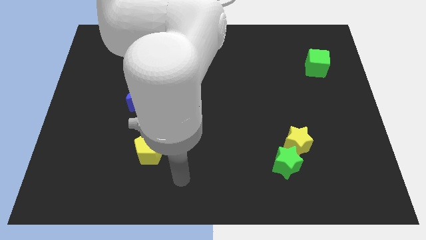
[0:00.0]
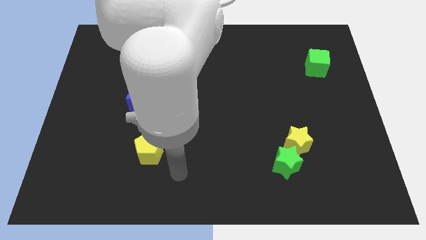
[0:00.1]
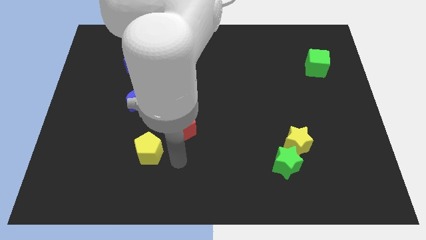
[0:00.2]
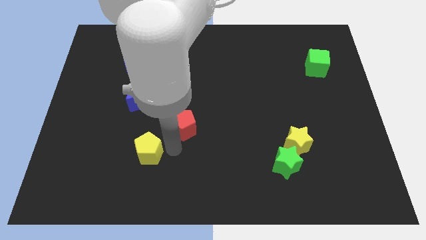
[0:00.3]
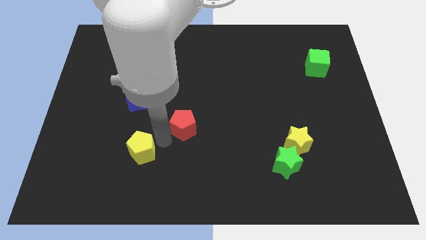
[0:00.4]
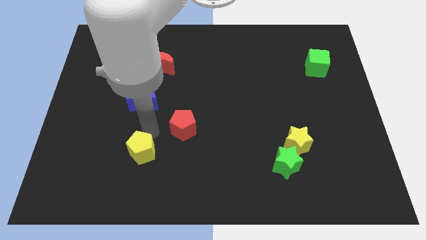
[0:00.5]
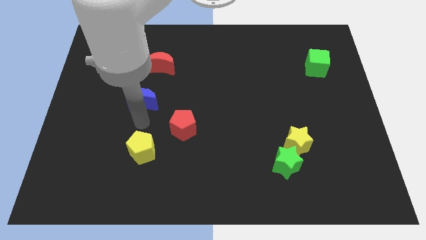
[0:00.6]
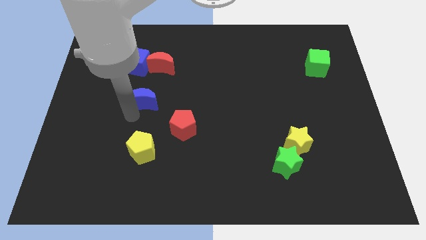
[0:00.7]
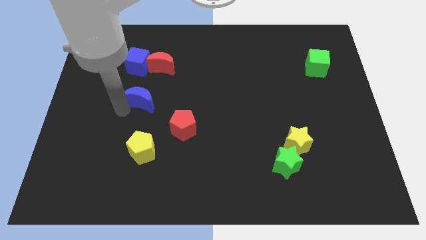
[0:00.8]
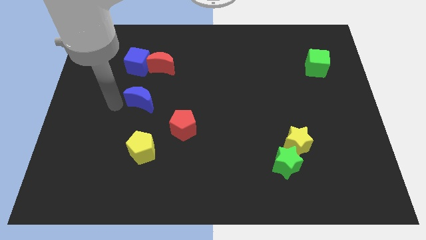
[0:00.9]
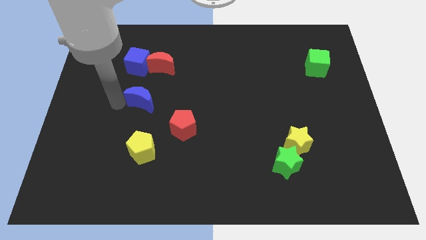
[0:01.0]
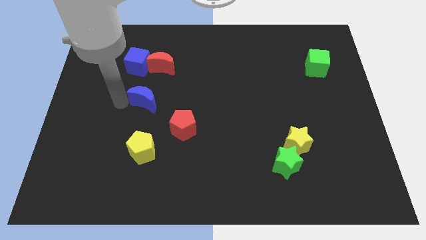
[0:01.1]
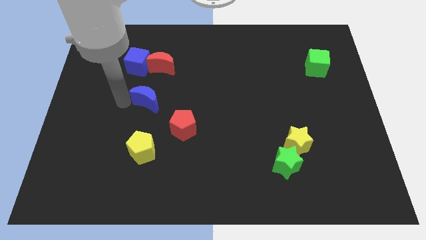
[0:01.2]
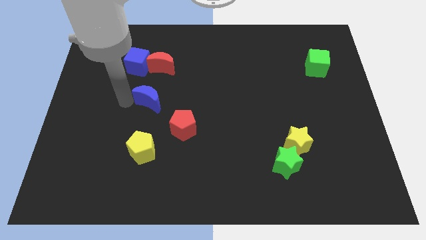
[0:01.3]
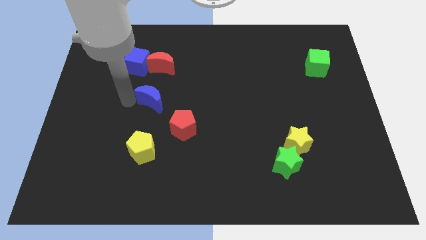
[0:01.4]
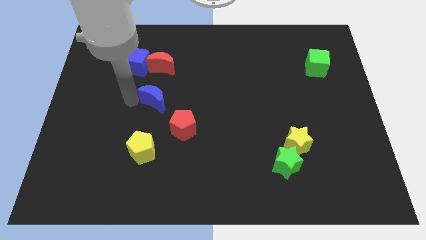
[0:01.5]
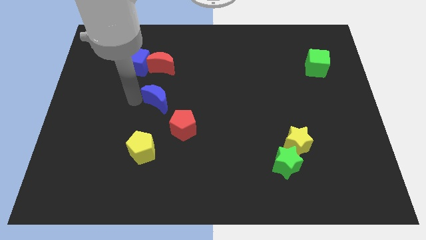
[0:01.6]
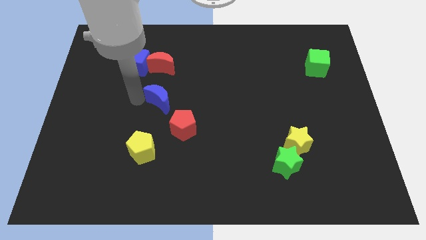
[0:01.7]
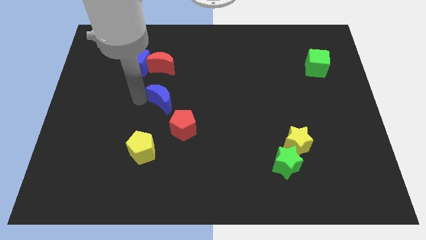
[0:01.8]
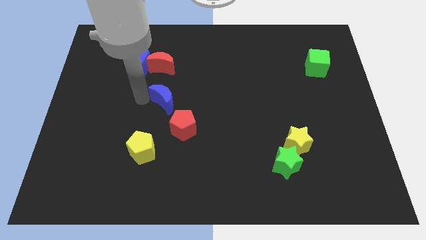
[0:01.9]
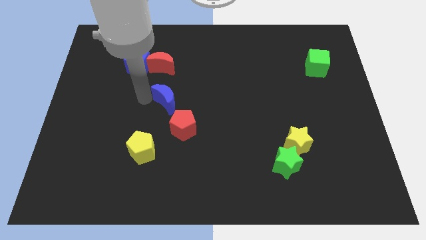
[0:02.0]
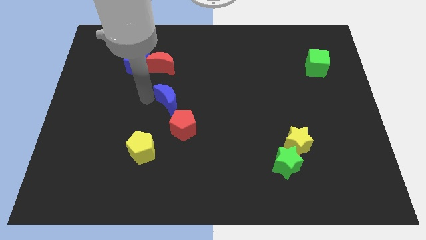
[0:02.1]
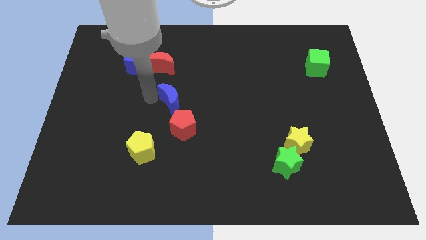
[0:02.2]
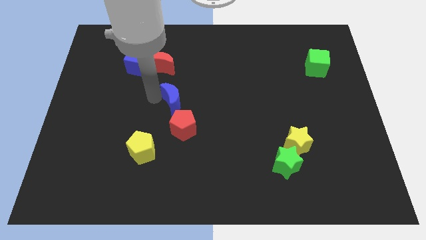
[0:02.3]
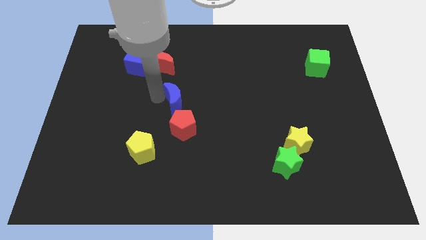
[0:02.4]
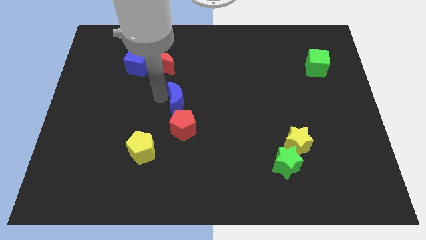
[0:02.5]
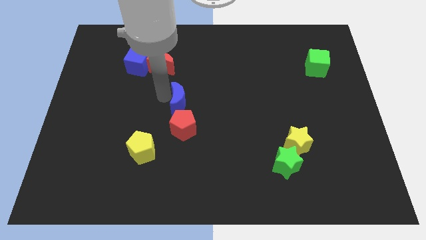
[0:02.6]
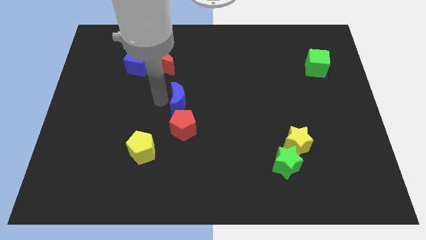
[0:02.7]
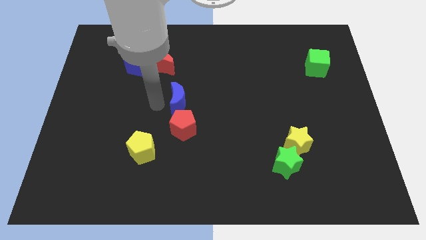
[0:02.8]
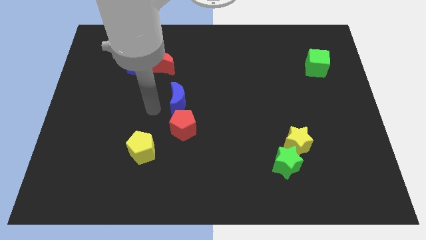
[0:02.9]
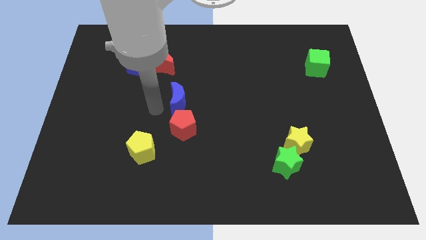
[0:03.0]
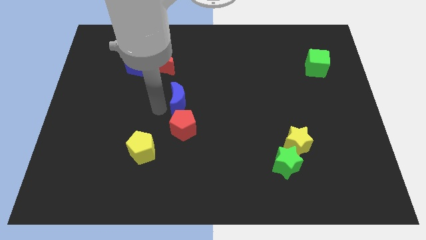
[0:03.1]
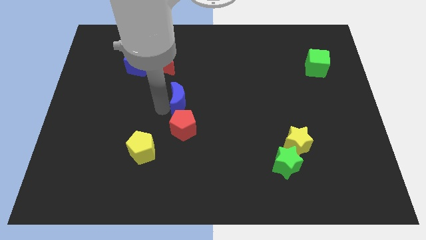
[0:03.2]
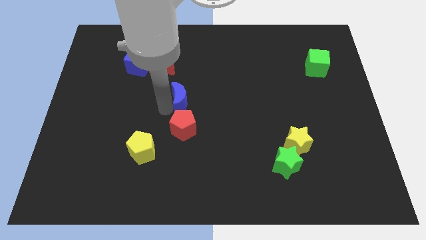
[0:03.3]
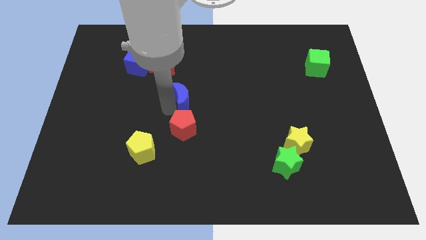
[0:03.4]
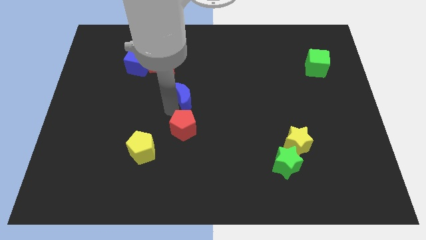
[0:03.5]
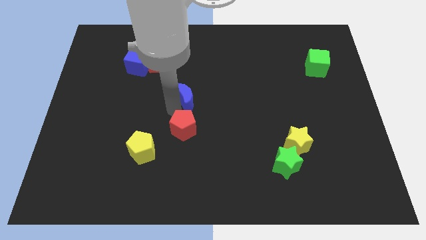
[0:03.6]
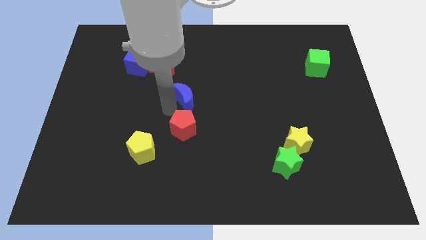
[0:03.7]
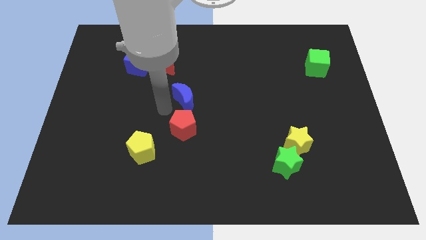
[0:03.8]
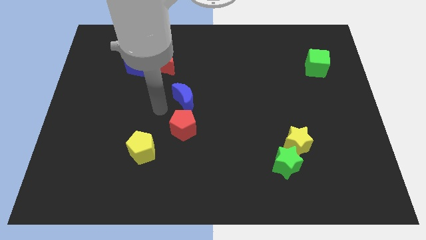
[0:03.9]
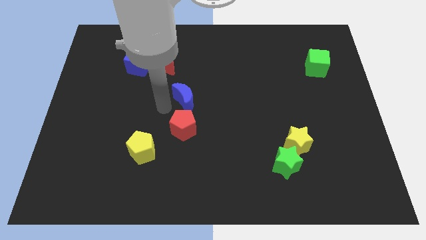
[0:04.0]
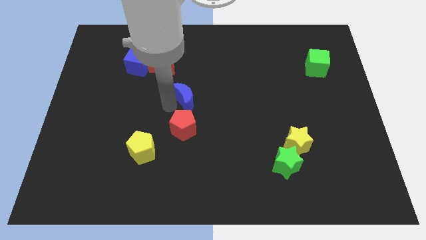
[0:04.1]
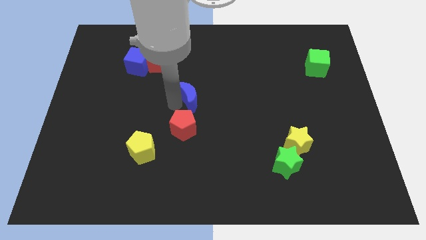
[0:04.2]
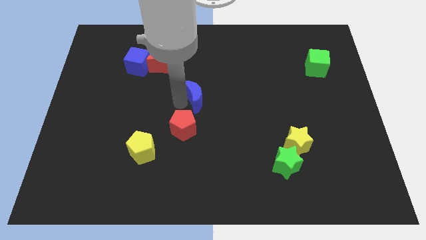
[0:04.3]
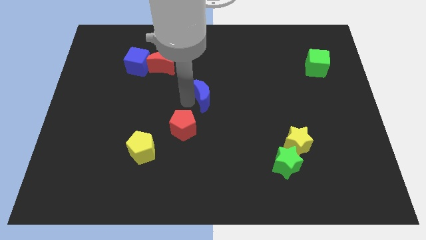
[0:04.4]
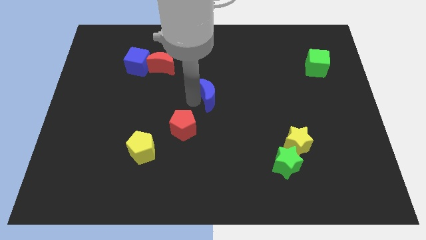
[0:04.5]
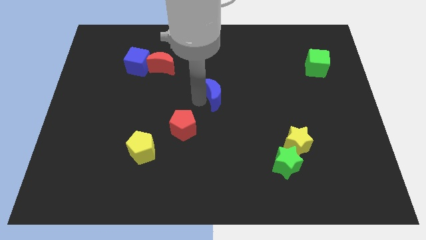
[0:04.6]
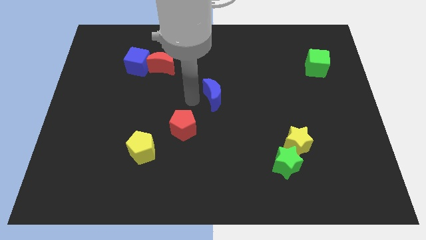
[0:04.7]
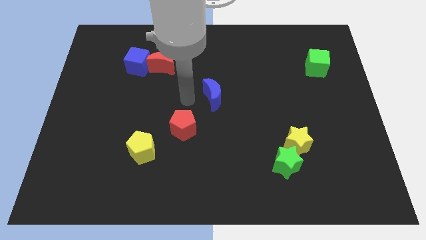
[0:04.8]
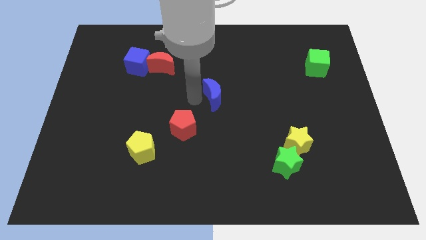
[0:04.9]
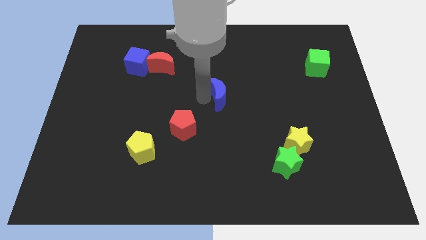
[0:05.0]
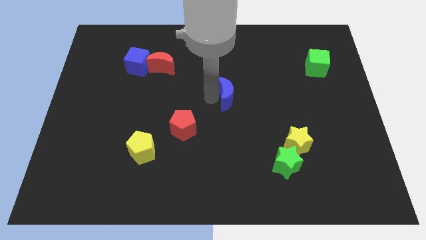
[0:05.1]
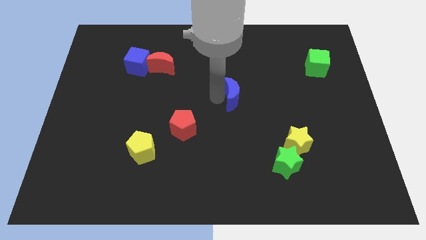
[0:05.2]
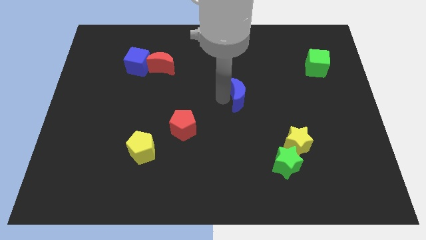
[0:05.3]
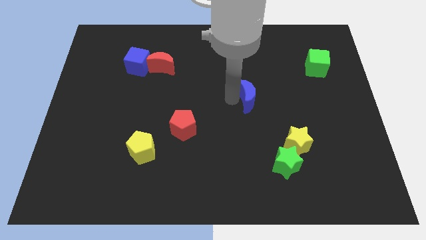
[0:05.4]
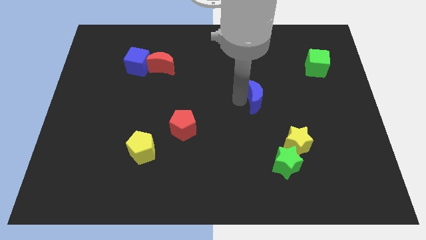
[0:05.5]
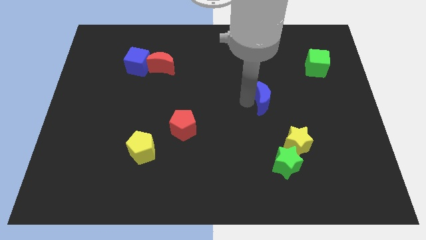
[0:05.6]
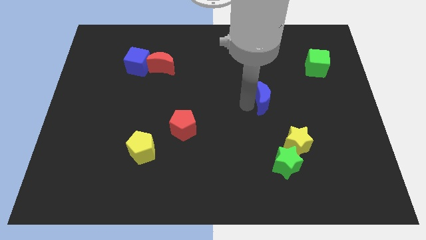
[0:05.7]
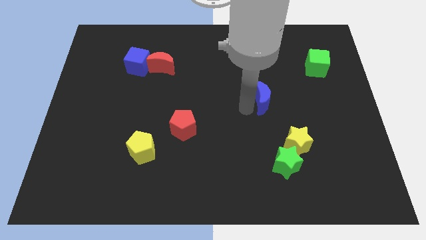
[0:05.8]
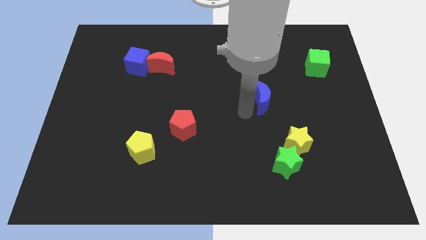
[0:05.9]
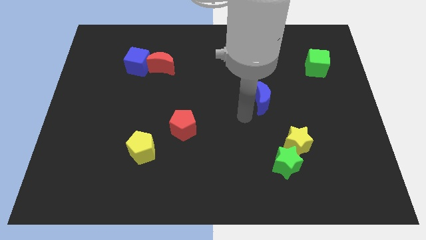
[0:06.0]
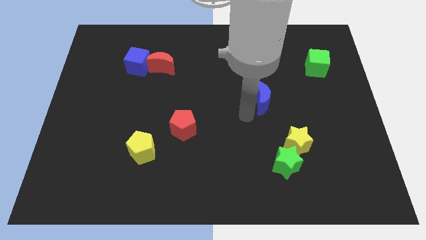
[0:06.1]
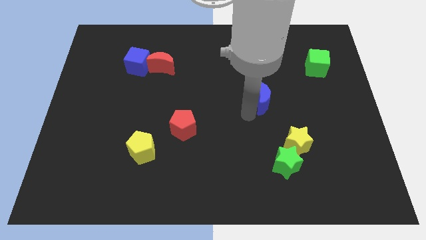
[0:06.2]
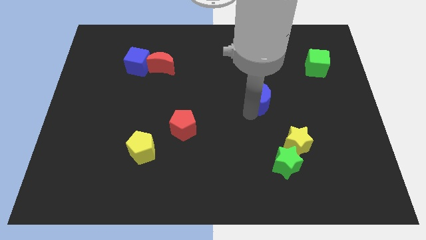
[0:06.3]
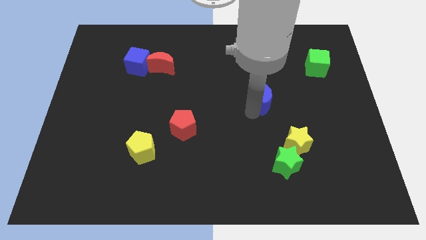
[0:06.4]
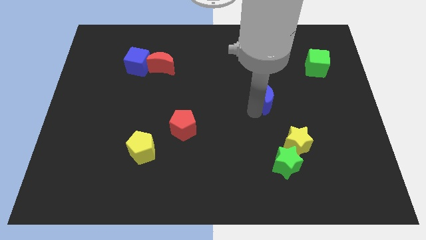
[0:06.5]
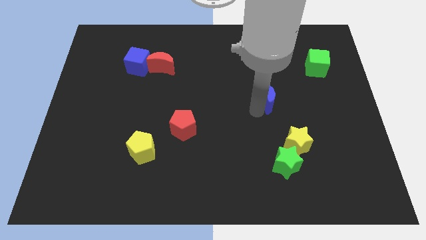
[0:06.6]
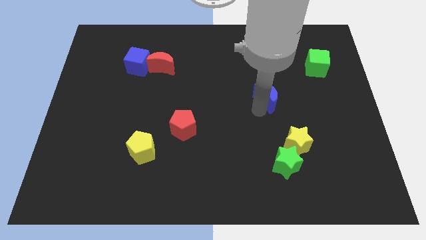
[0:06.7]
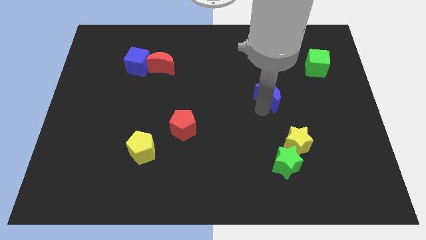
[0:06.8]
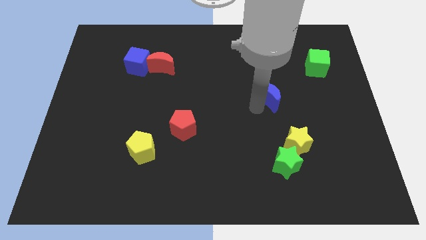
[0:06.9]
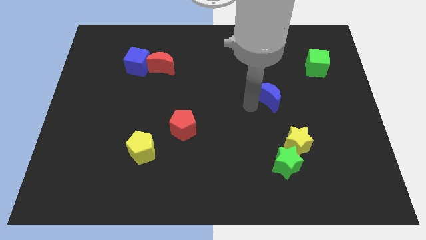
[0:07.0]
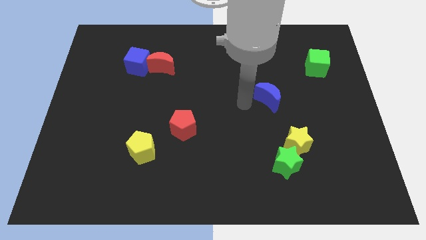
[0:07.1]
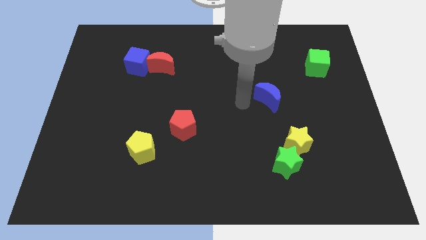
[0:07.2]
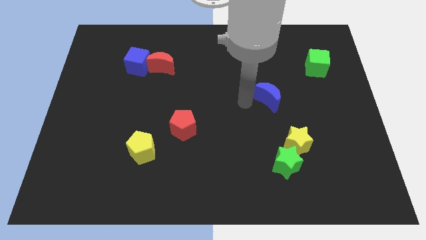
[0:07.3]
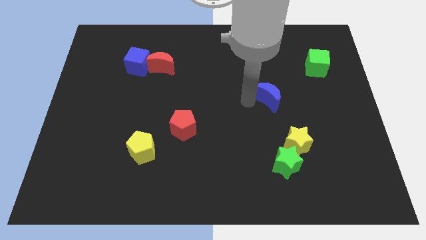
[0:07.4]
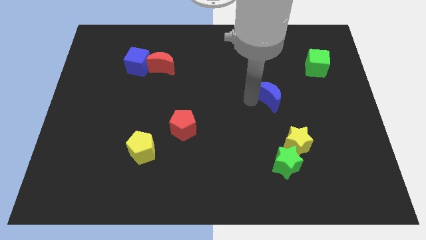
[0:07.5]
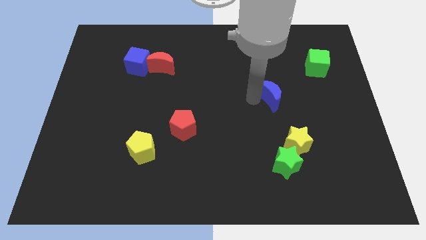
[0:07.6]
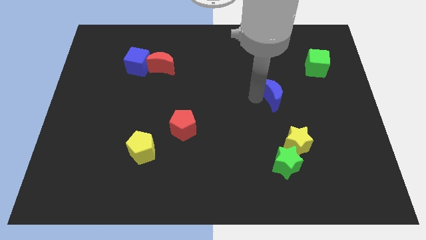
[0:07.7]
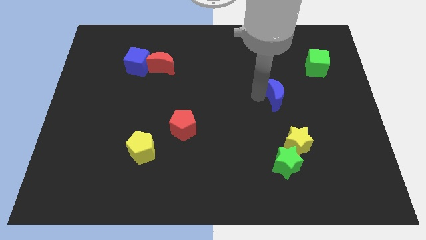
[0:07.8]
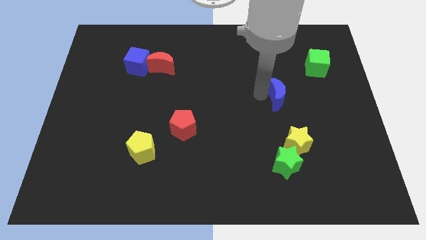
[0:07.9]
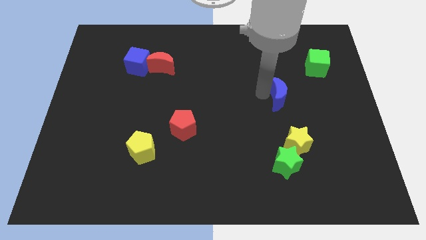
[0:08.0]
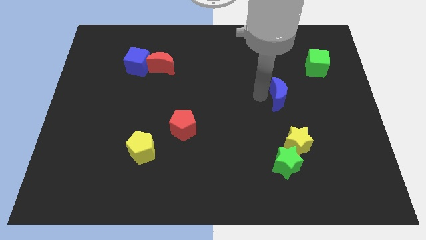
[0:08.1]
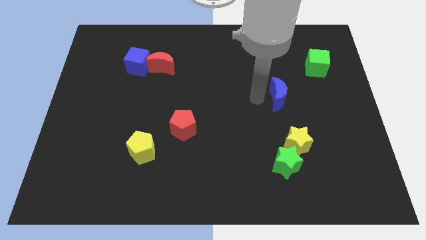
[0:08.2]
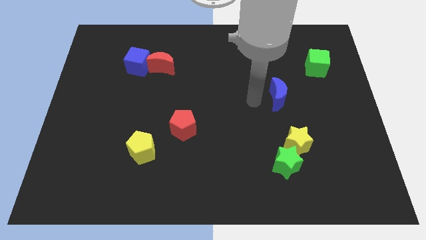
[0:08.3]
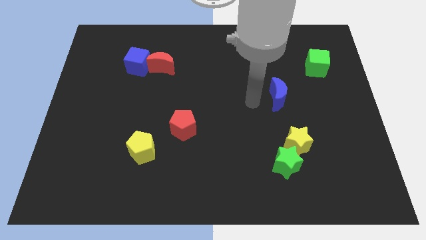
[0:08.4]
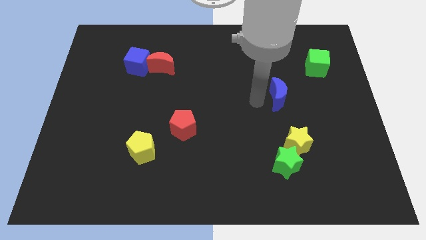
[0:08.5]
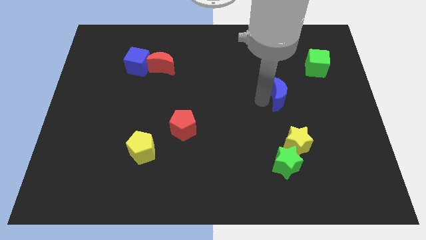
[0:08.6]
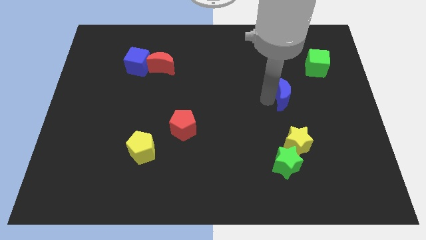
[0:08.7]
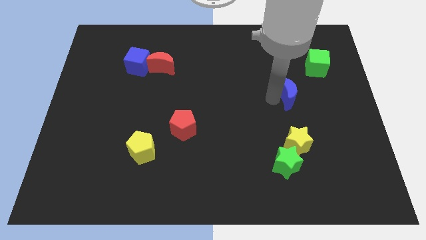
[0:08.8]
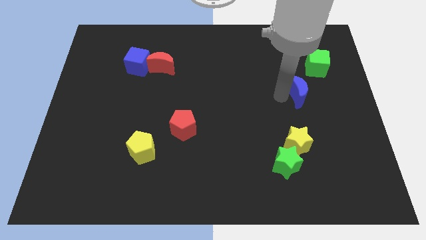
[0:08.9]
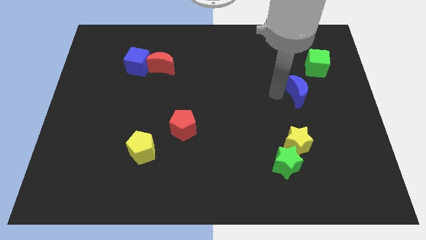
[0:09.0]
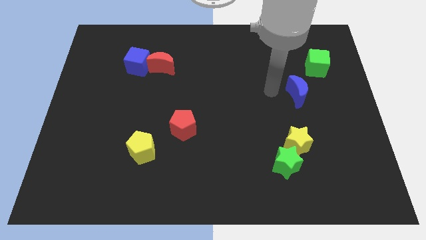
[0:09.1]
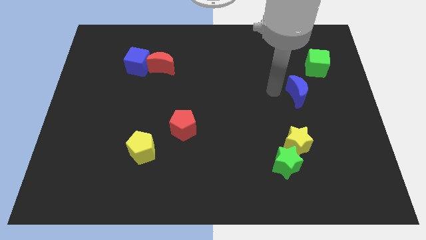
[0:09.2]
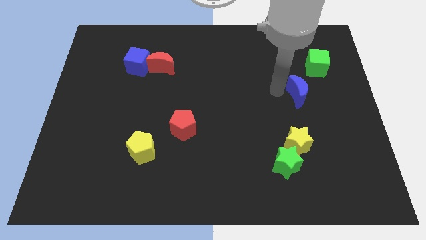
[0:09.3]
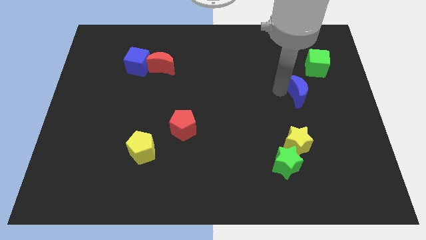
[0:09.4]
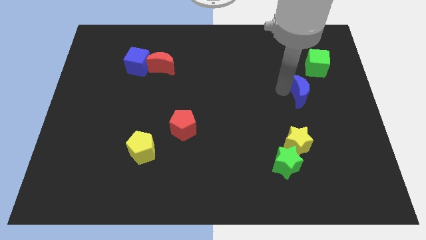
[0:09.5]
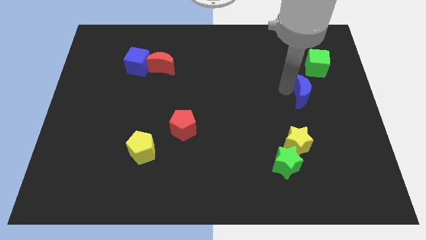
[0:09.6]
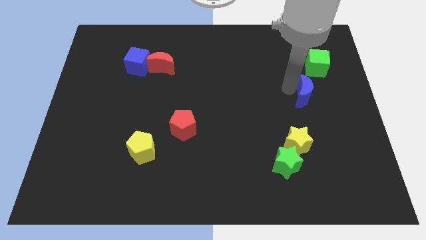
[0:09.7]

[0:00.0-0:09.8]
move the blue moon to the bottom side of the green cube
